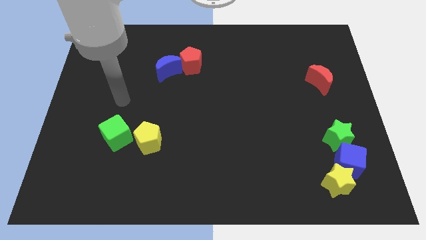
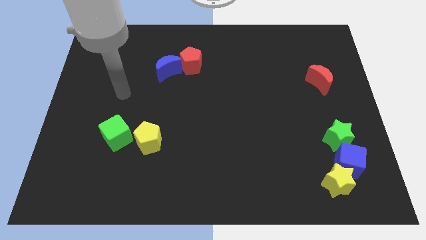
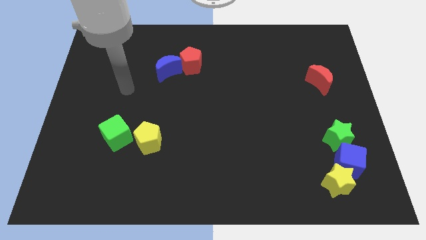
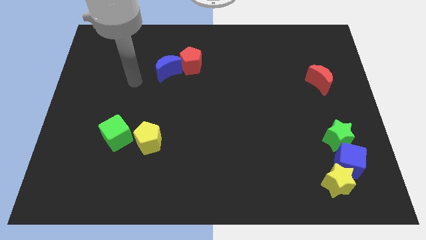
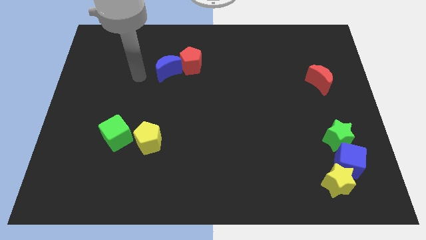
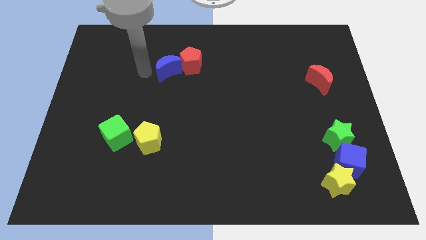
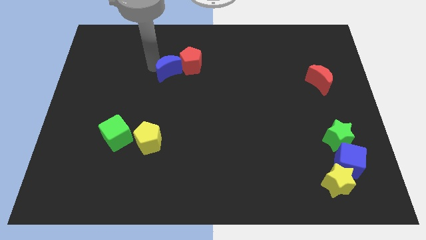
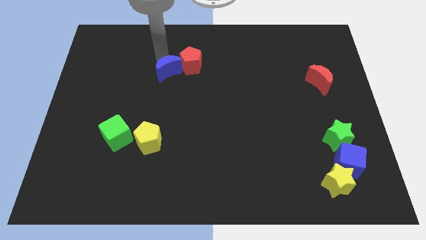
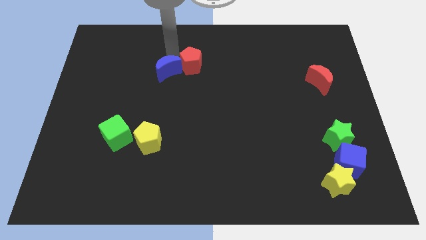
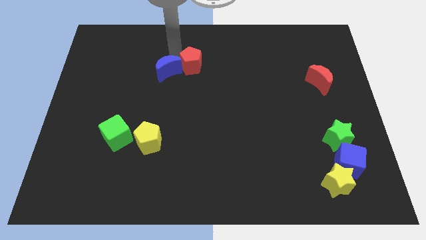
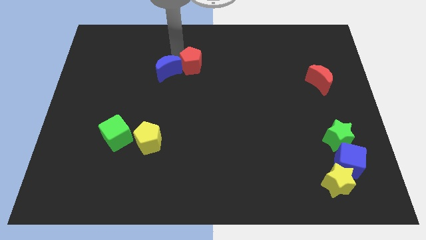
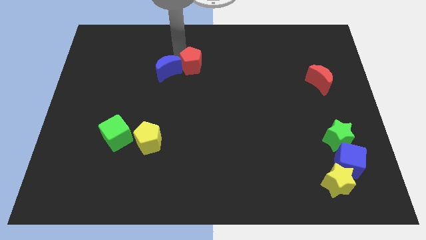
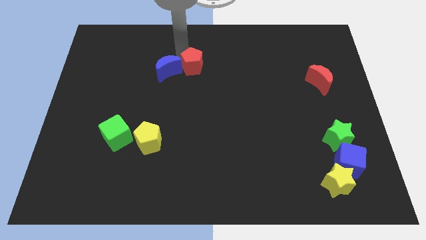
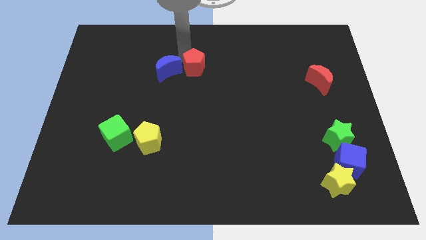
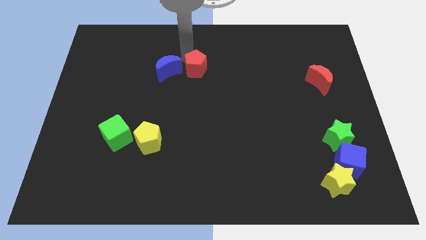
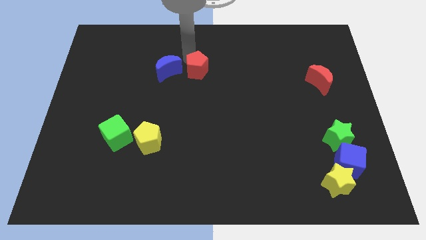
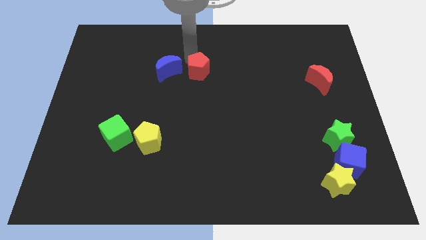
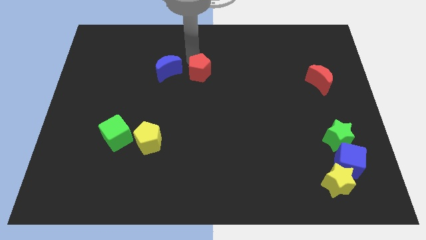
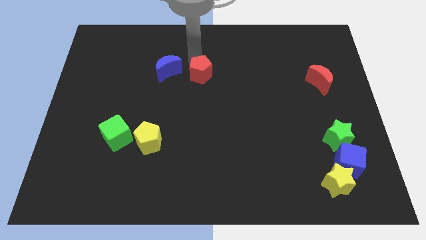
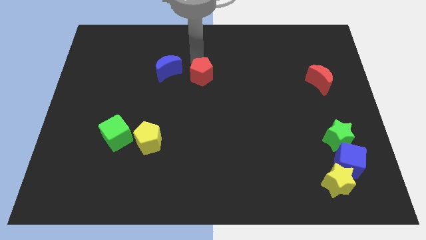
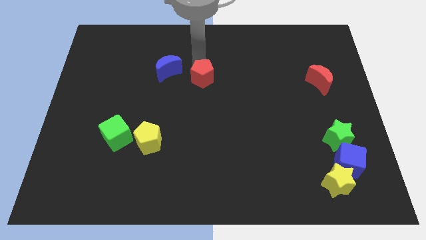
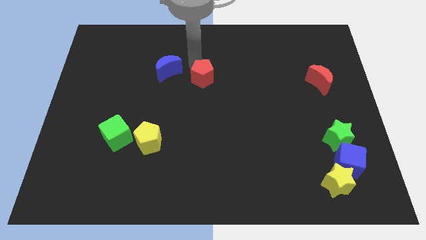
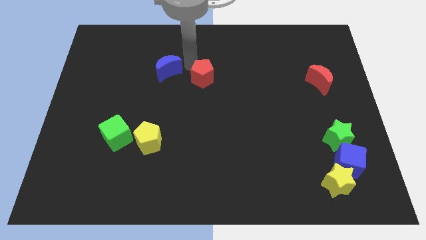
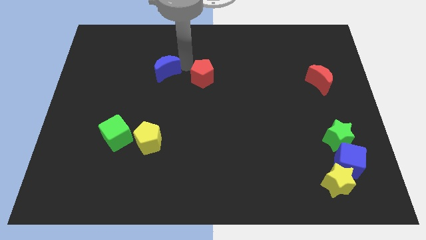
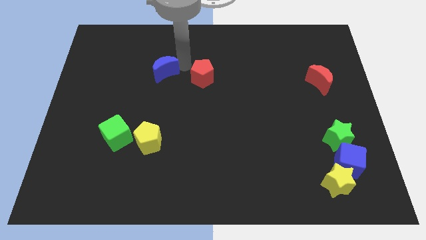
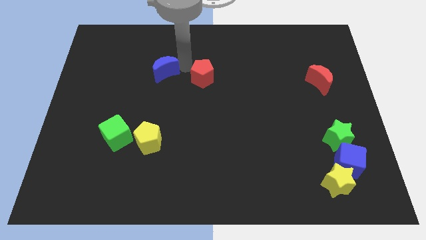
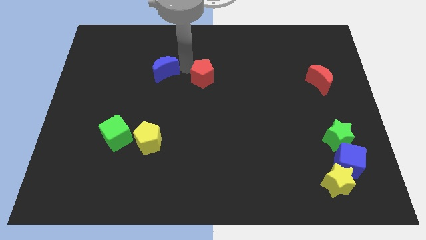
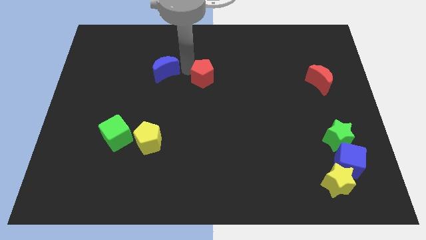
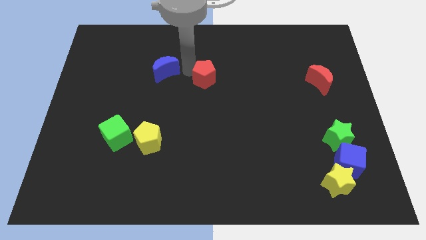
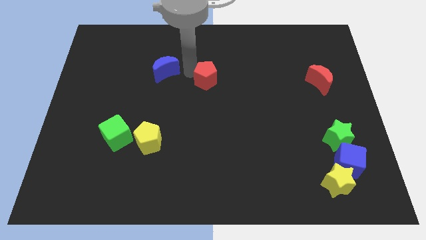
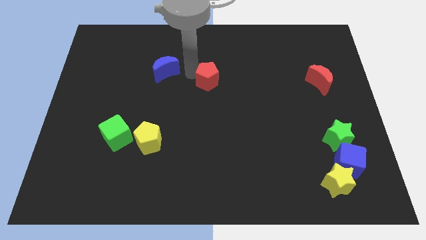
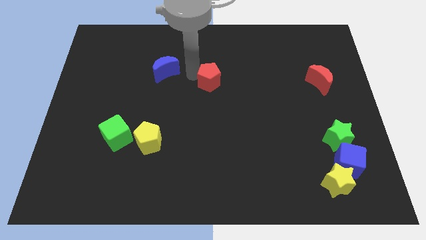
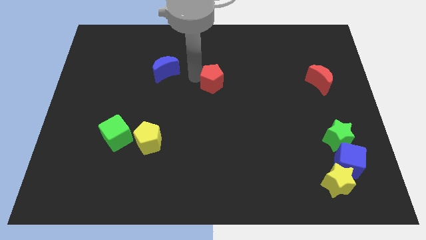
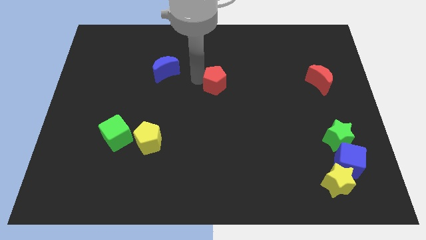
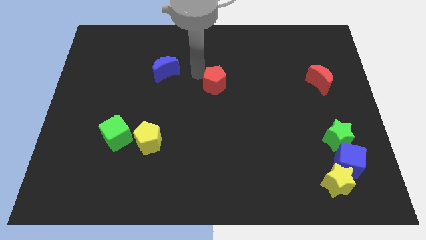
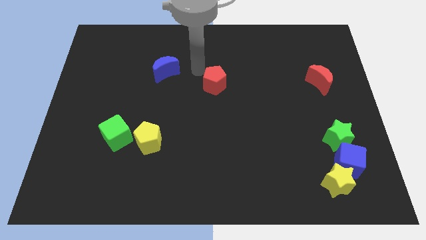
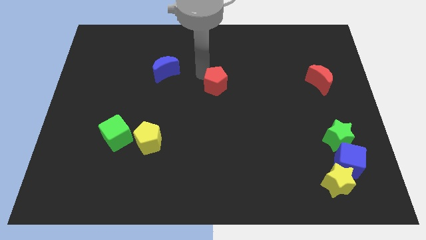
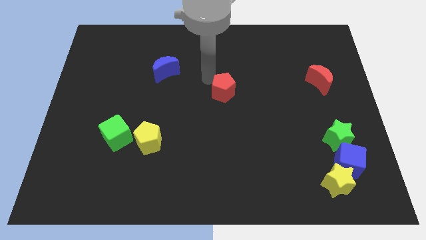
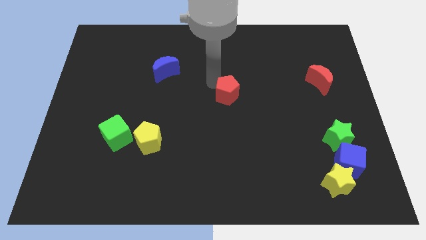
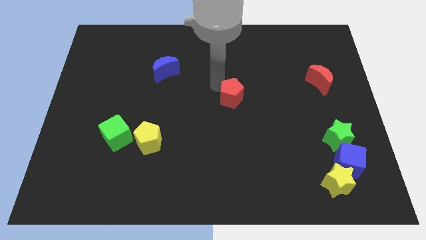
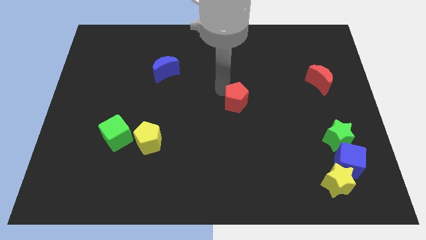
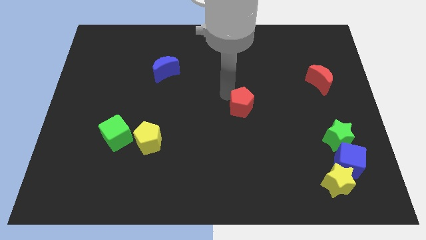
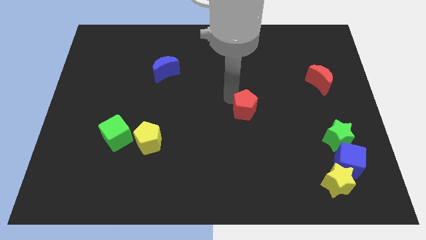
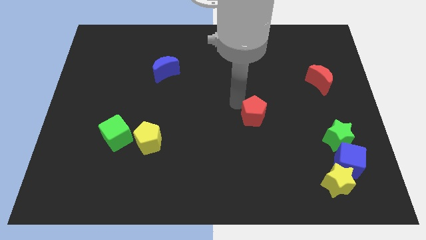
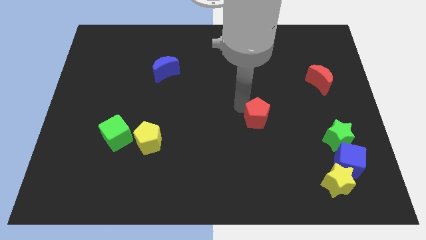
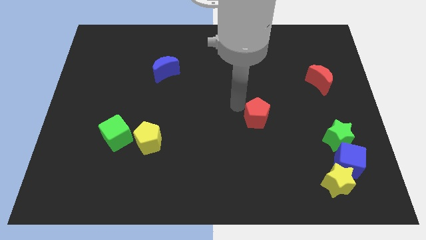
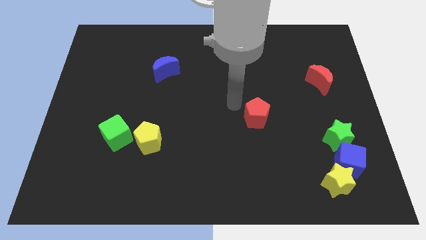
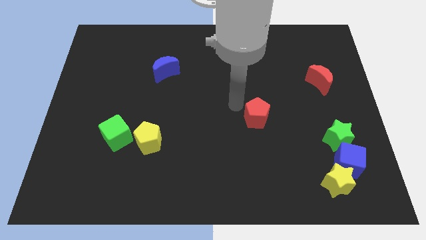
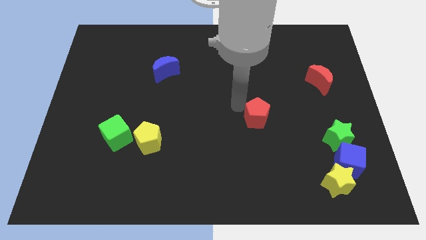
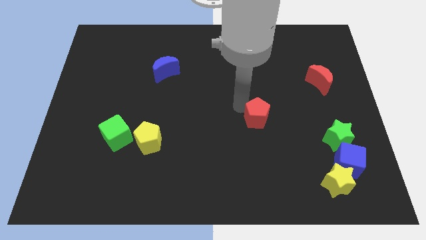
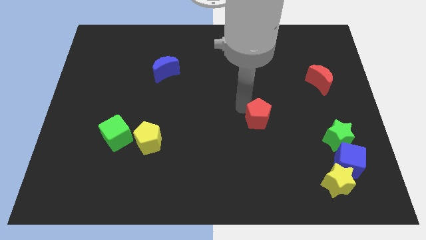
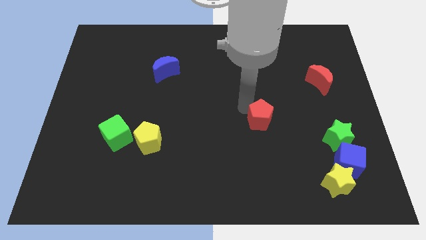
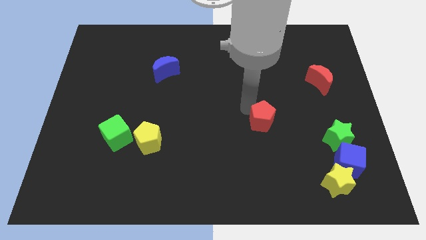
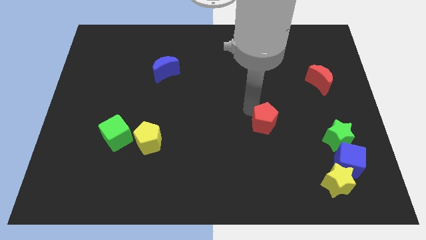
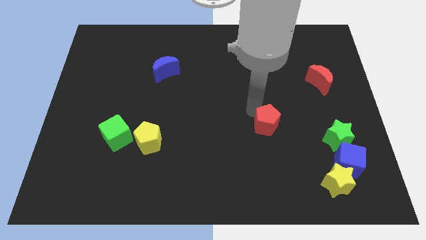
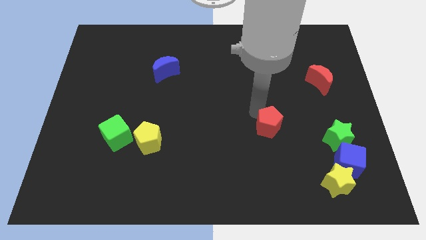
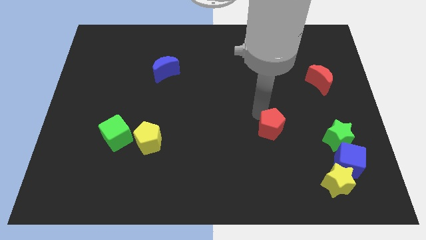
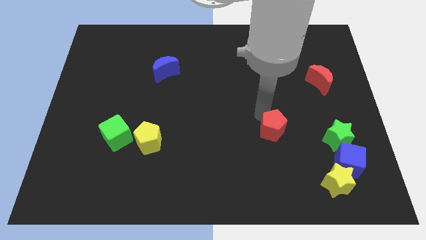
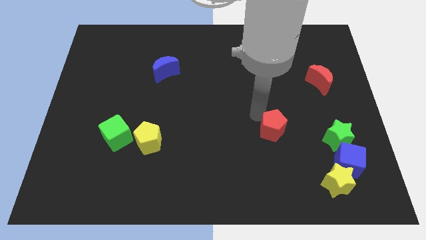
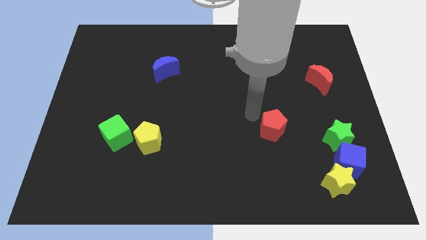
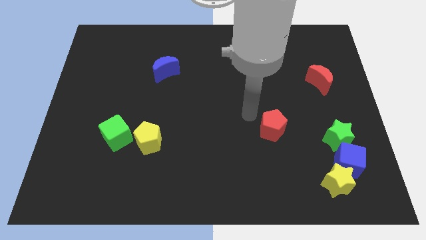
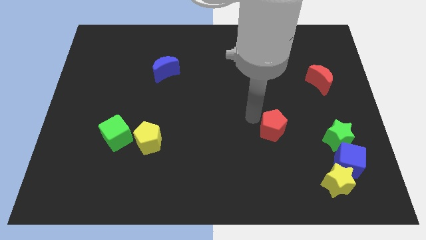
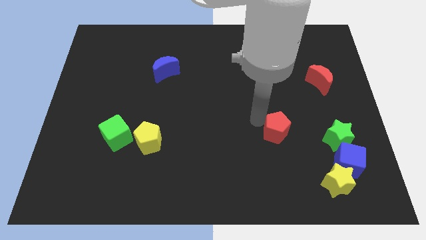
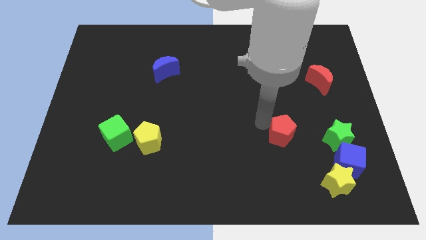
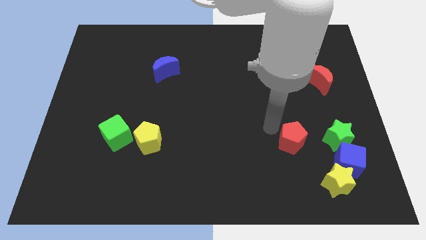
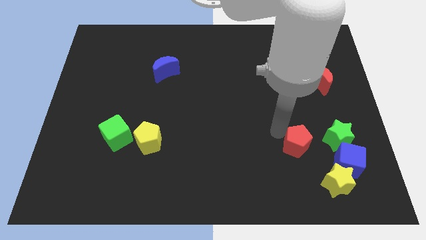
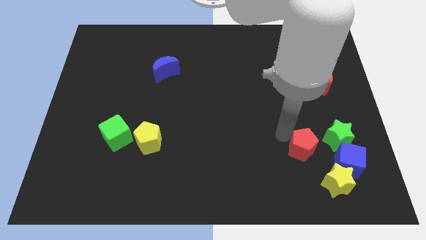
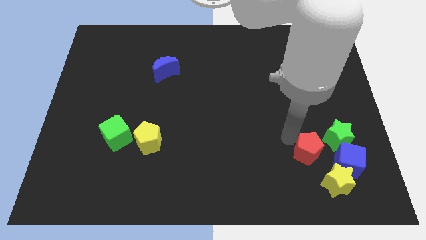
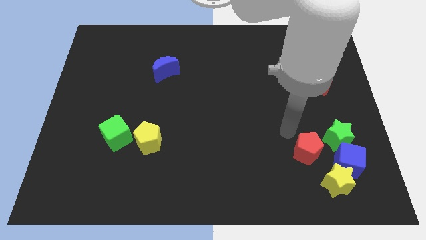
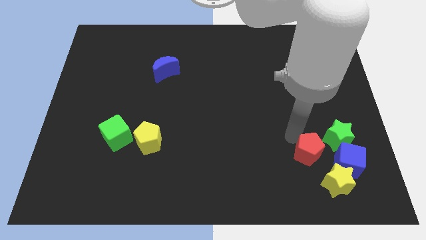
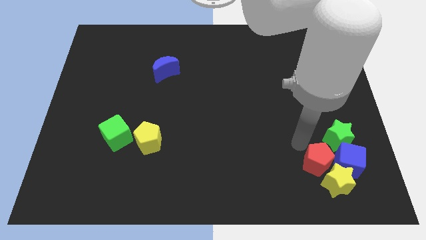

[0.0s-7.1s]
move the red pentagon towards the yellow star
